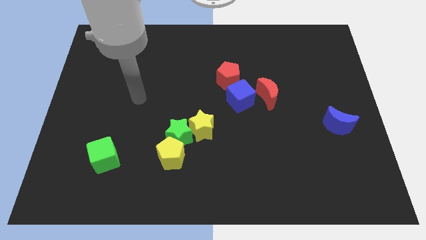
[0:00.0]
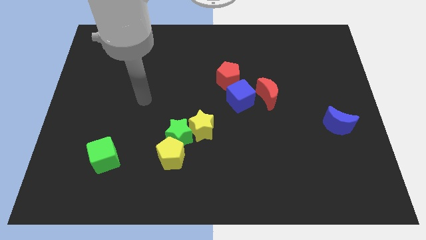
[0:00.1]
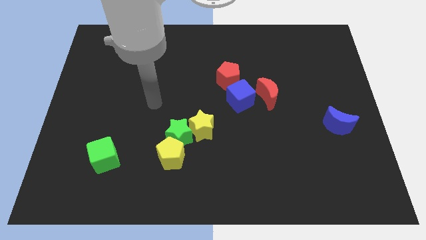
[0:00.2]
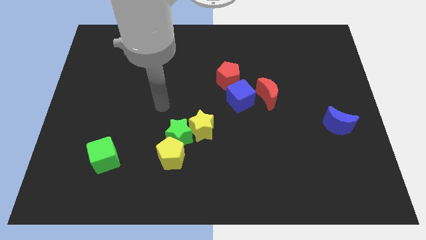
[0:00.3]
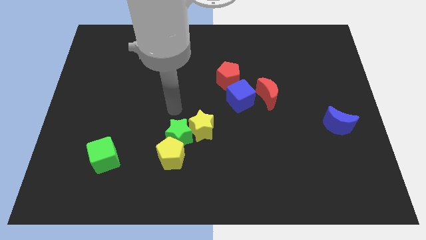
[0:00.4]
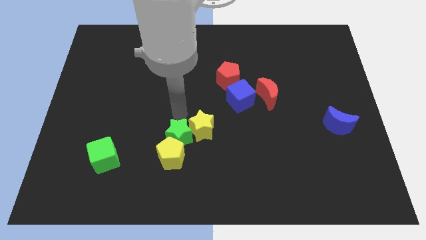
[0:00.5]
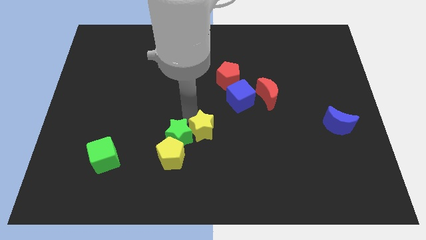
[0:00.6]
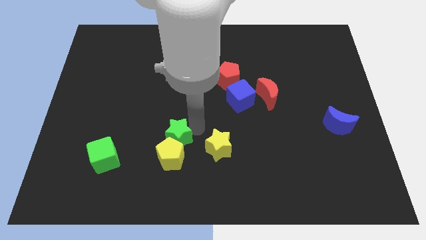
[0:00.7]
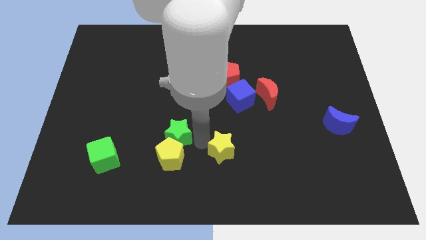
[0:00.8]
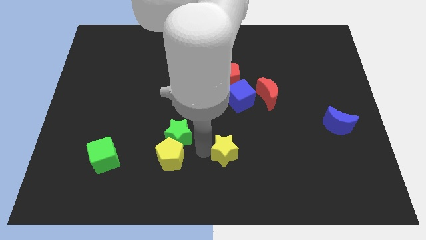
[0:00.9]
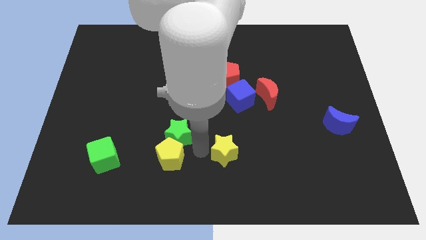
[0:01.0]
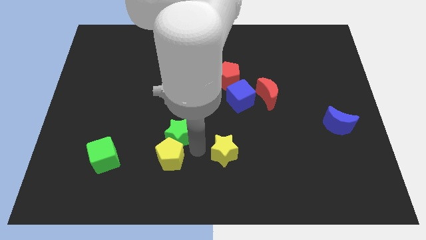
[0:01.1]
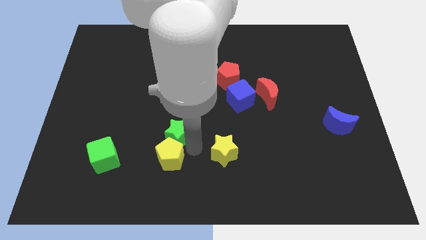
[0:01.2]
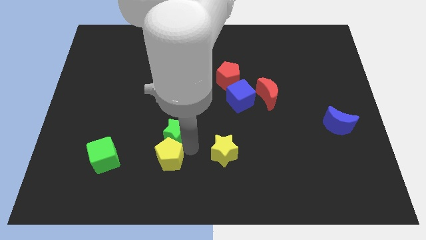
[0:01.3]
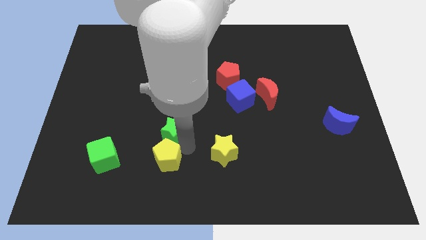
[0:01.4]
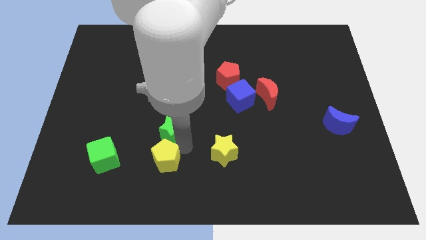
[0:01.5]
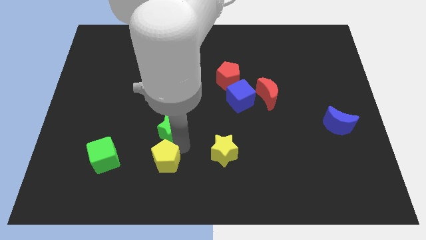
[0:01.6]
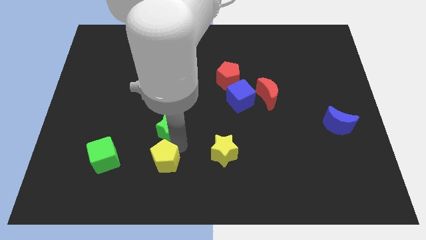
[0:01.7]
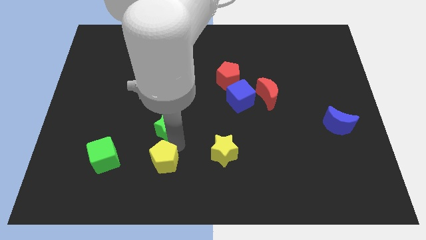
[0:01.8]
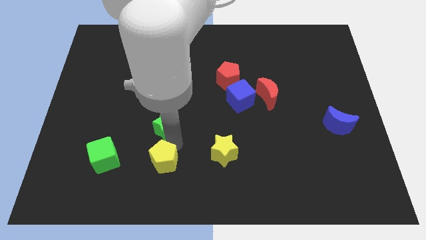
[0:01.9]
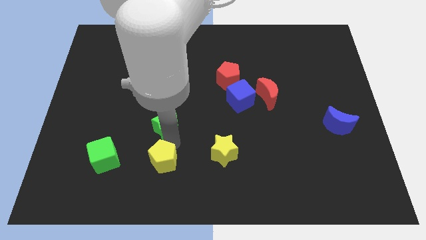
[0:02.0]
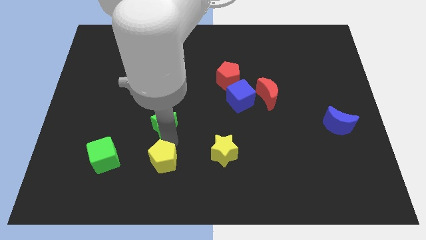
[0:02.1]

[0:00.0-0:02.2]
move the green star away from the yellow pentagon and yellow star

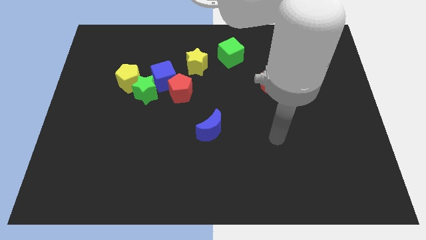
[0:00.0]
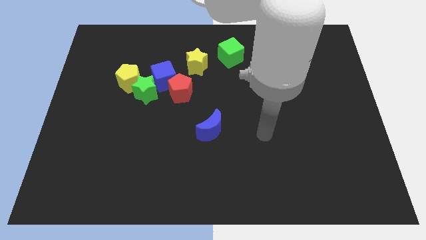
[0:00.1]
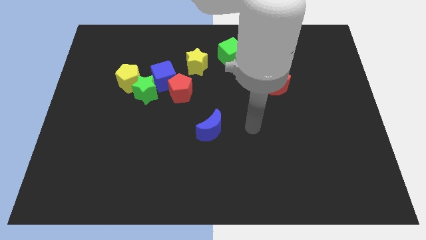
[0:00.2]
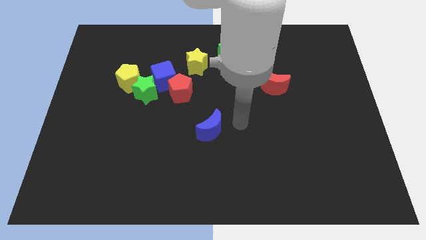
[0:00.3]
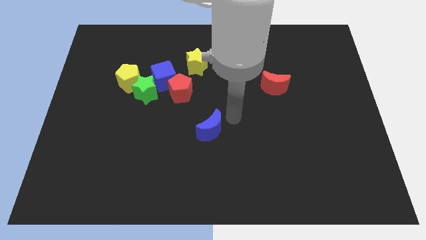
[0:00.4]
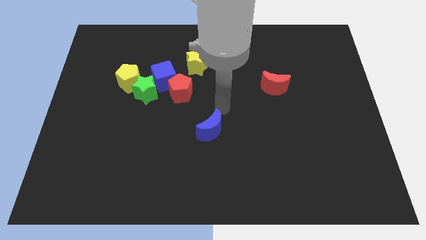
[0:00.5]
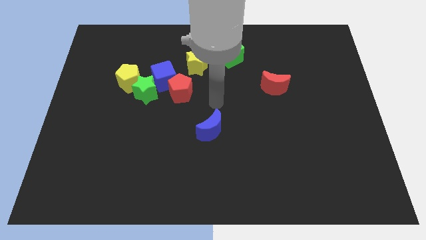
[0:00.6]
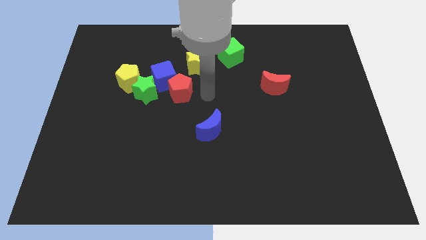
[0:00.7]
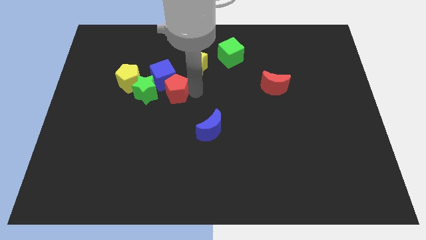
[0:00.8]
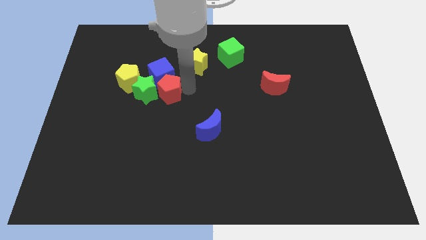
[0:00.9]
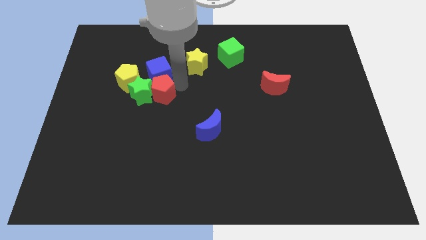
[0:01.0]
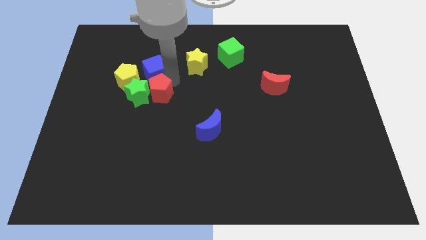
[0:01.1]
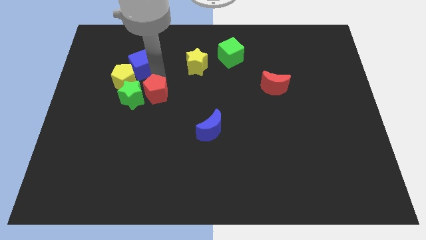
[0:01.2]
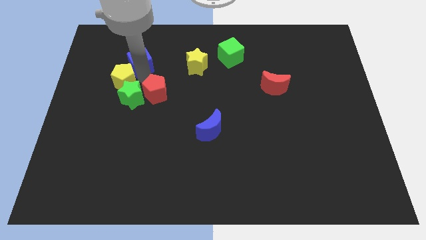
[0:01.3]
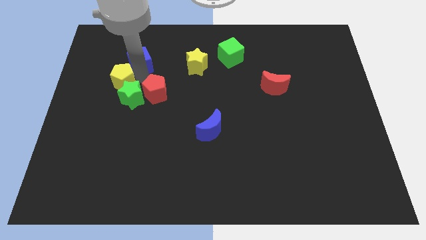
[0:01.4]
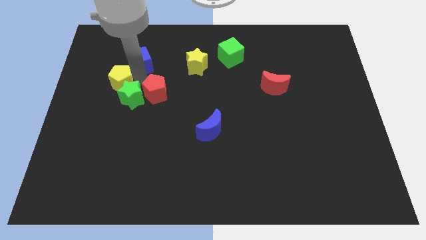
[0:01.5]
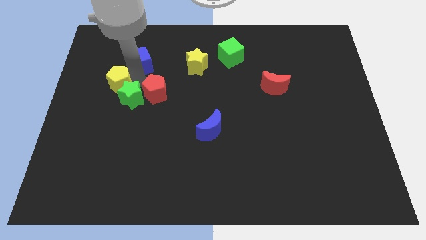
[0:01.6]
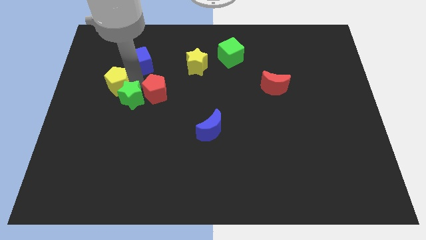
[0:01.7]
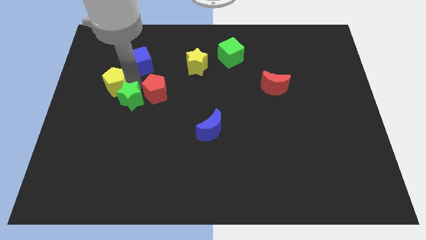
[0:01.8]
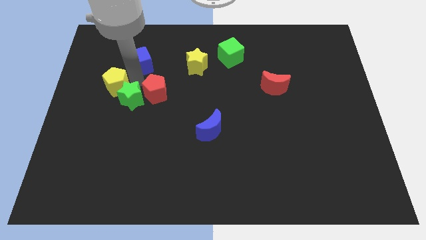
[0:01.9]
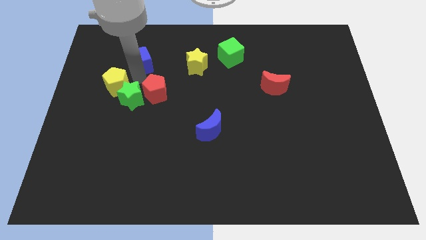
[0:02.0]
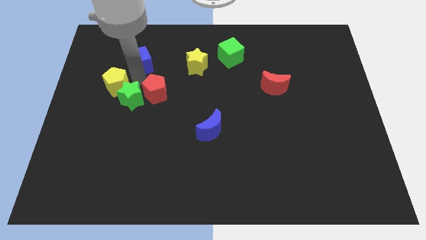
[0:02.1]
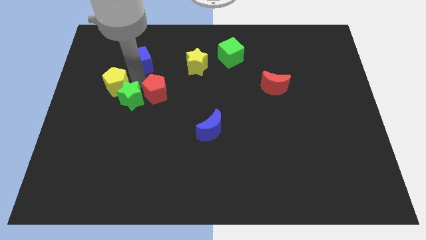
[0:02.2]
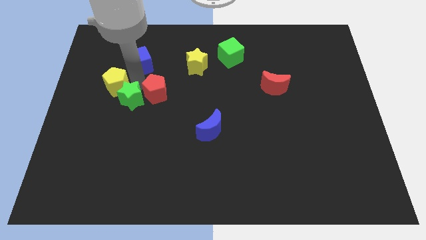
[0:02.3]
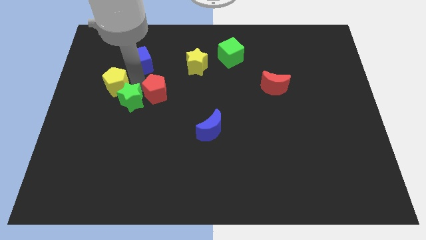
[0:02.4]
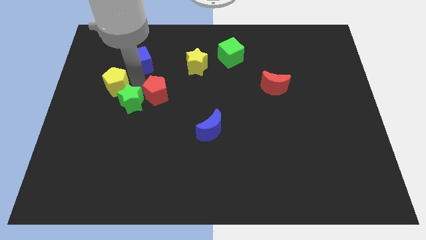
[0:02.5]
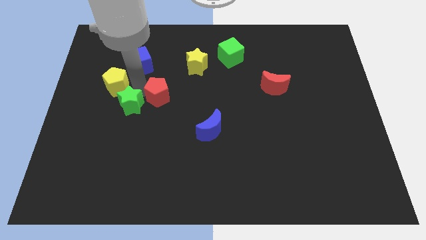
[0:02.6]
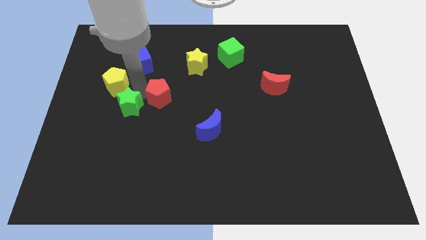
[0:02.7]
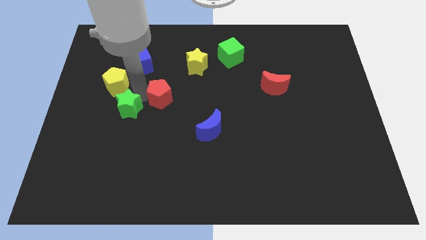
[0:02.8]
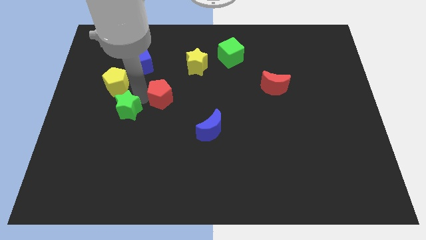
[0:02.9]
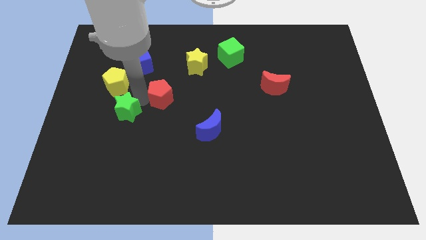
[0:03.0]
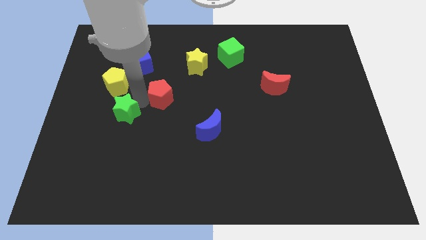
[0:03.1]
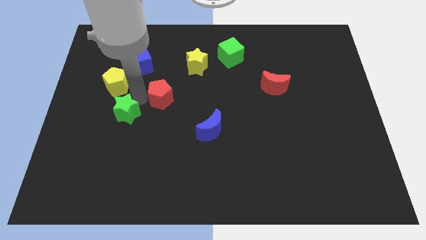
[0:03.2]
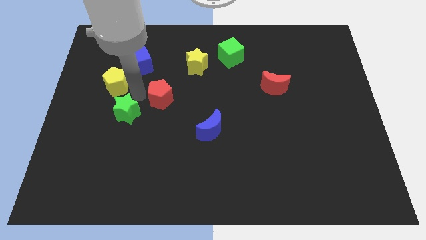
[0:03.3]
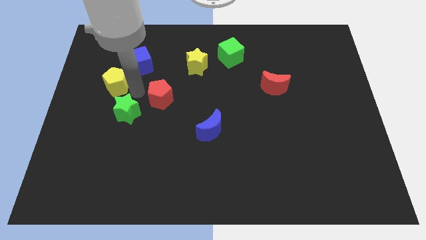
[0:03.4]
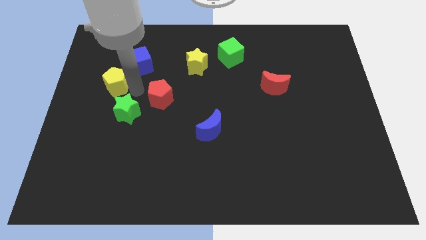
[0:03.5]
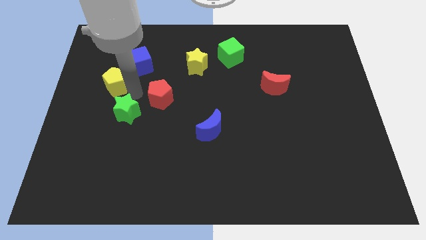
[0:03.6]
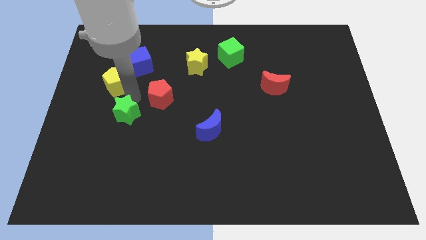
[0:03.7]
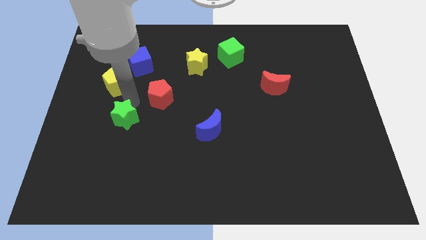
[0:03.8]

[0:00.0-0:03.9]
pull the green star apart from the group of blocks

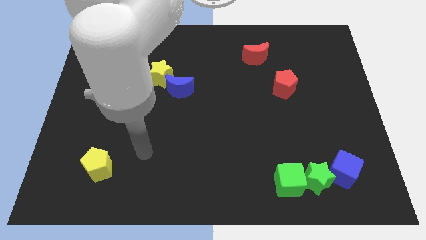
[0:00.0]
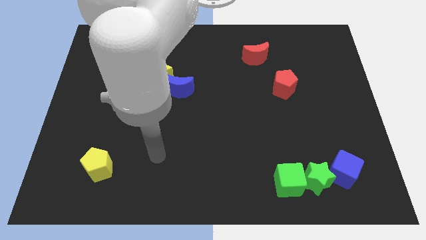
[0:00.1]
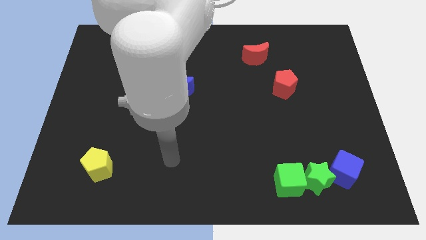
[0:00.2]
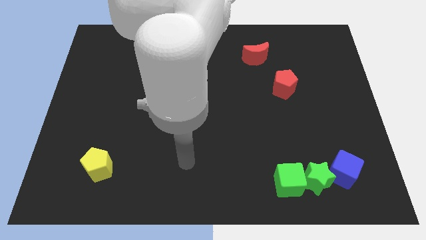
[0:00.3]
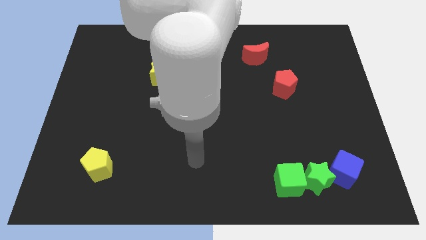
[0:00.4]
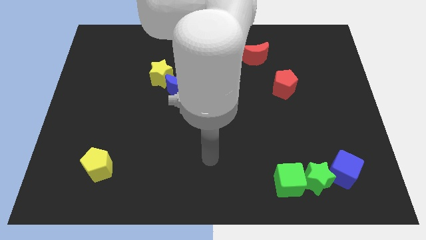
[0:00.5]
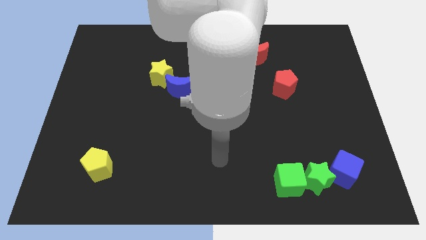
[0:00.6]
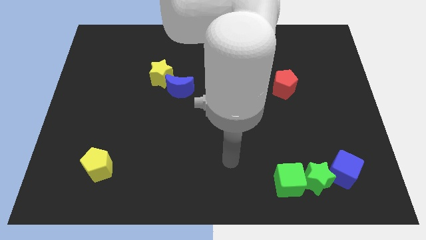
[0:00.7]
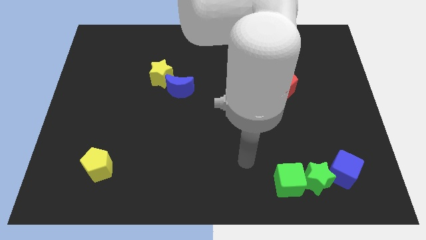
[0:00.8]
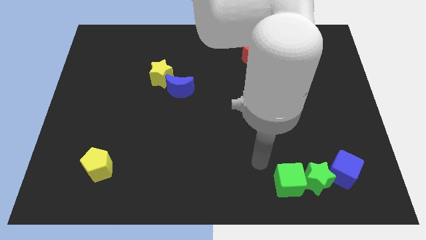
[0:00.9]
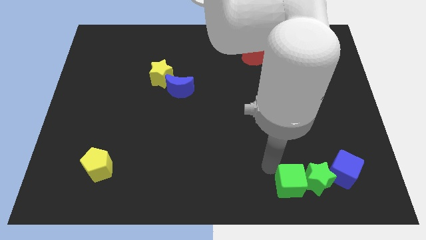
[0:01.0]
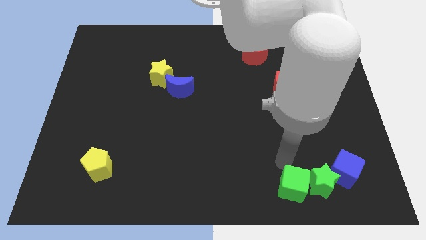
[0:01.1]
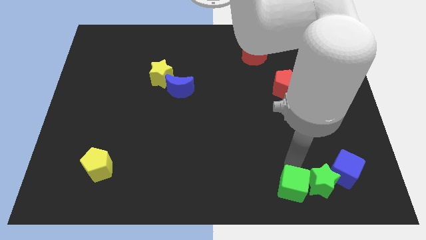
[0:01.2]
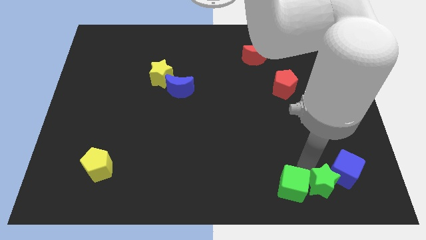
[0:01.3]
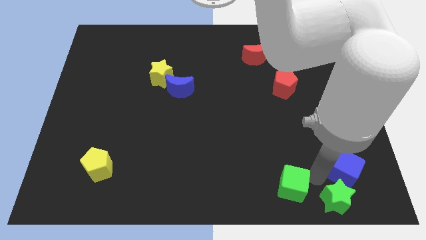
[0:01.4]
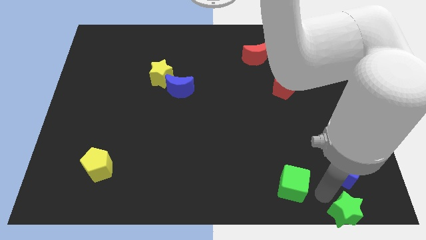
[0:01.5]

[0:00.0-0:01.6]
pull the green cube apart from the green star

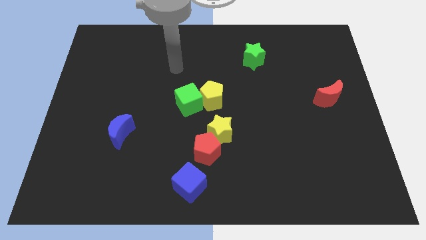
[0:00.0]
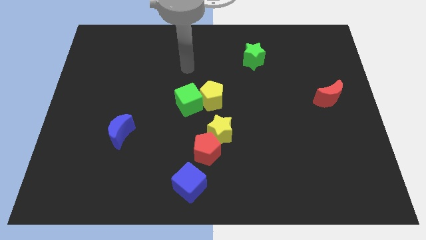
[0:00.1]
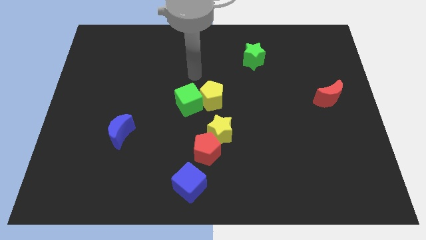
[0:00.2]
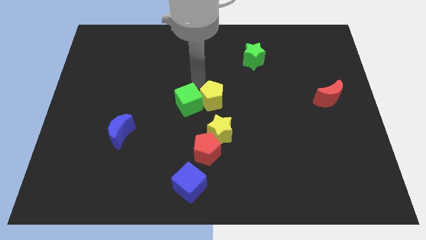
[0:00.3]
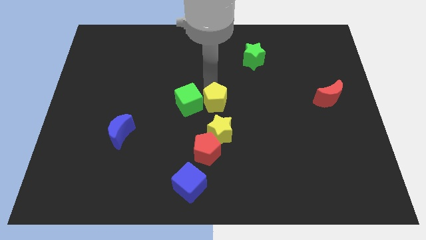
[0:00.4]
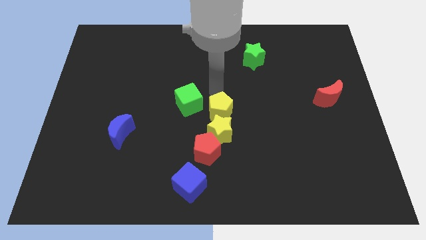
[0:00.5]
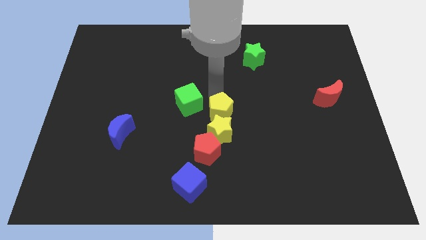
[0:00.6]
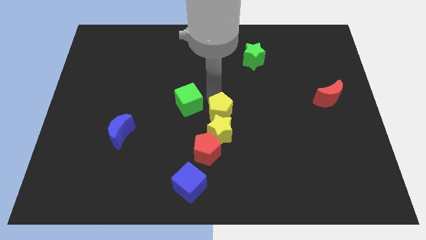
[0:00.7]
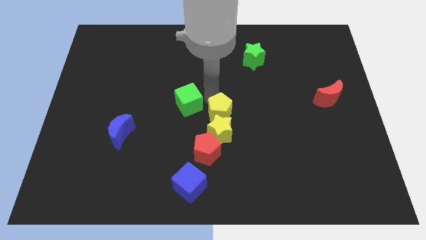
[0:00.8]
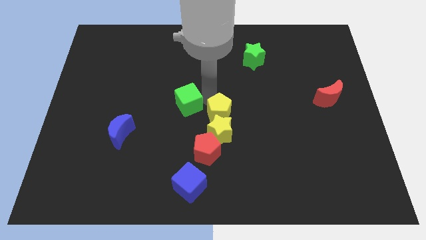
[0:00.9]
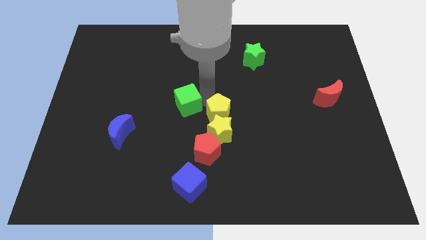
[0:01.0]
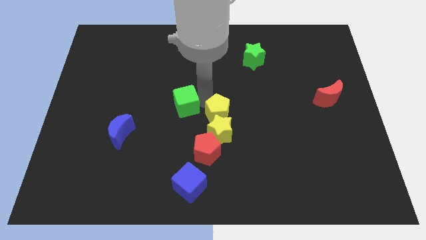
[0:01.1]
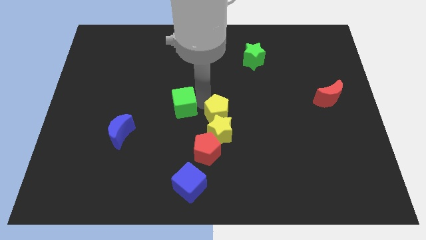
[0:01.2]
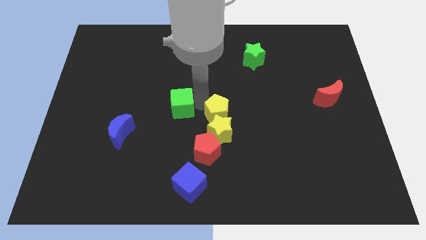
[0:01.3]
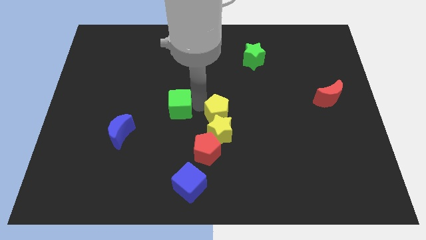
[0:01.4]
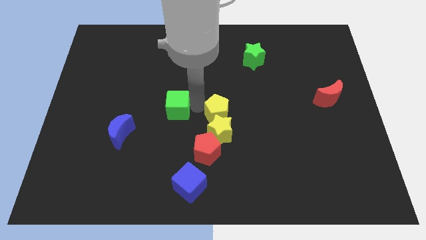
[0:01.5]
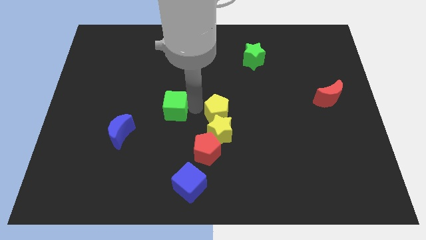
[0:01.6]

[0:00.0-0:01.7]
move the green cube away from the yellow pentagon
